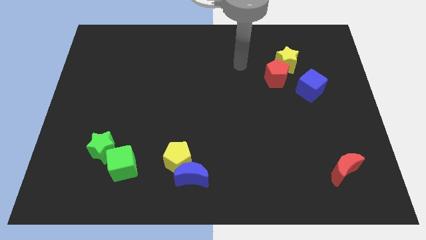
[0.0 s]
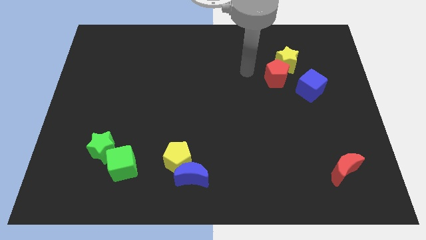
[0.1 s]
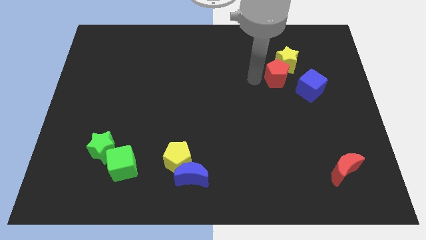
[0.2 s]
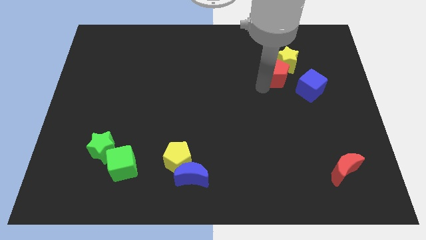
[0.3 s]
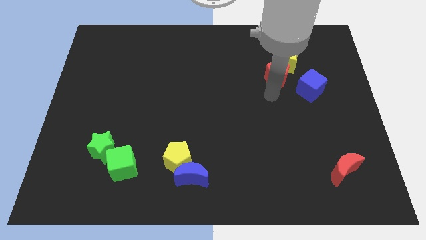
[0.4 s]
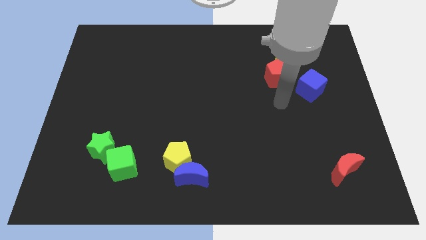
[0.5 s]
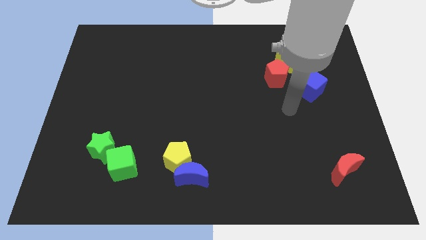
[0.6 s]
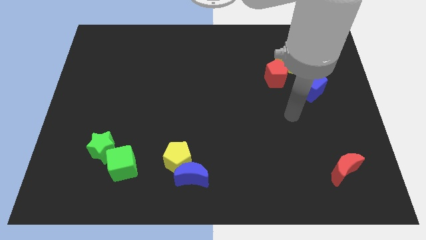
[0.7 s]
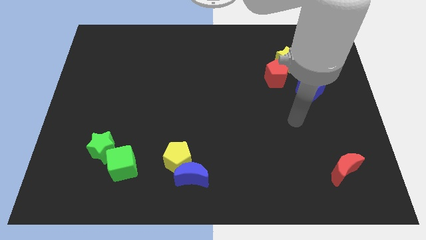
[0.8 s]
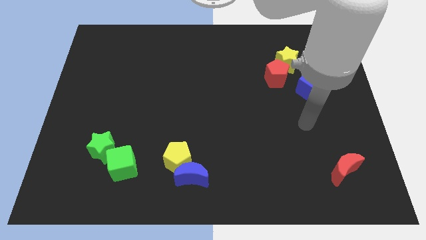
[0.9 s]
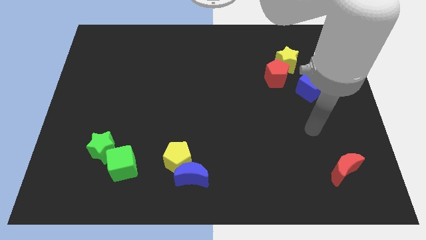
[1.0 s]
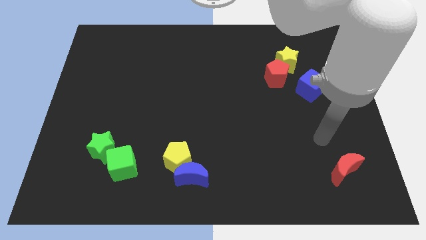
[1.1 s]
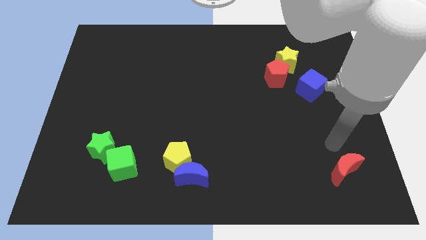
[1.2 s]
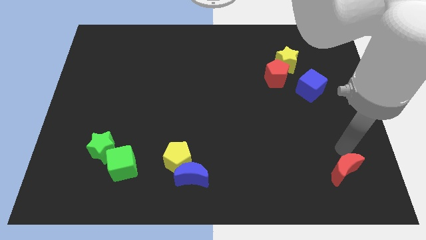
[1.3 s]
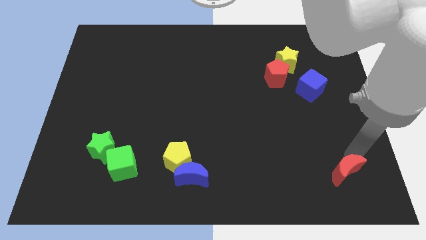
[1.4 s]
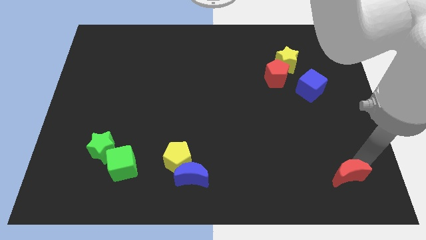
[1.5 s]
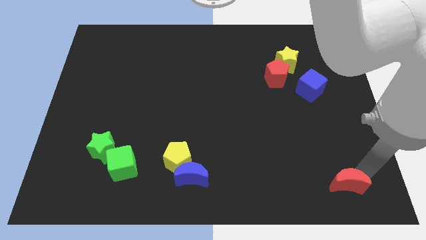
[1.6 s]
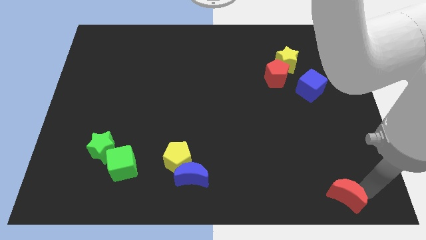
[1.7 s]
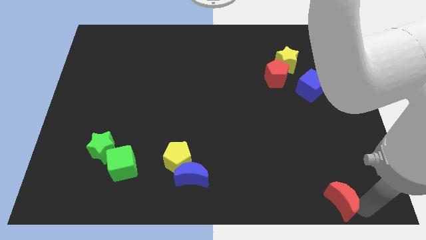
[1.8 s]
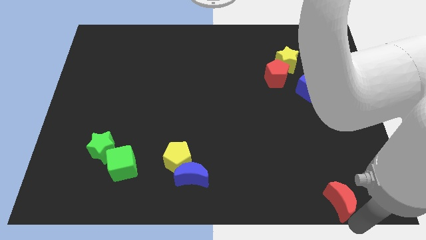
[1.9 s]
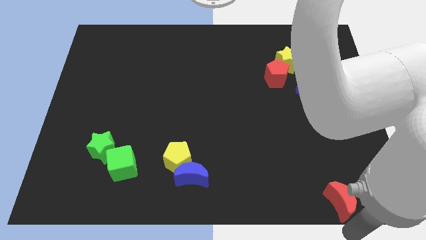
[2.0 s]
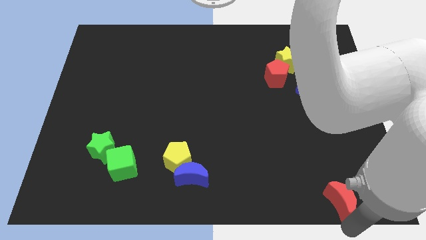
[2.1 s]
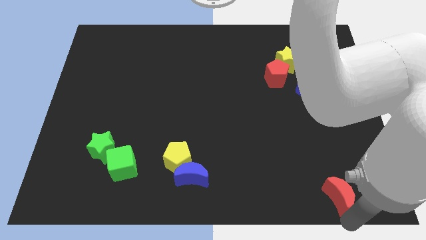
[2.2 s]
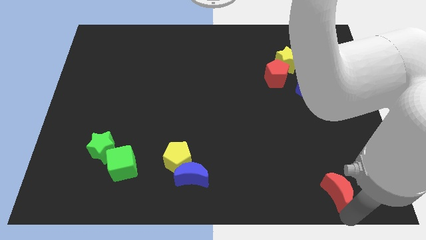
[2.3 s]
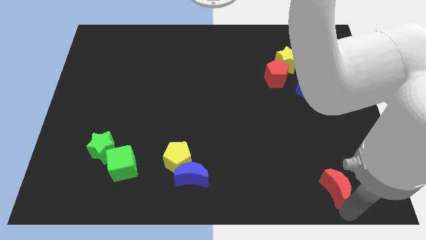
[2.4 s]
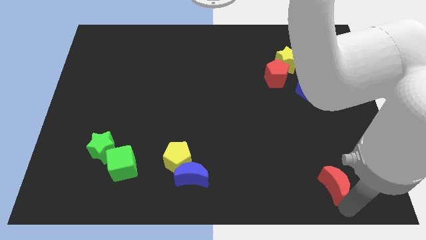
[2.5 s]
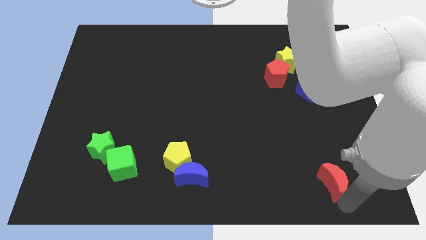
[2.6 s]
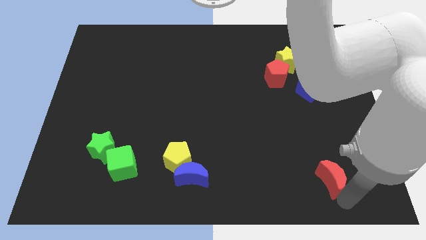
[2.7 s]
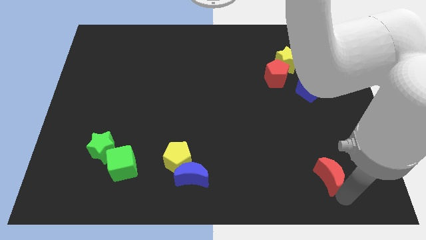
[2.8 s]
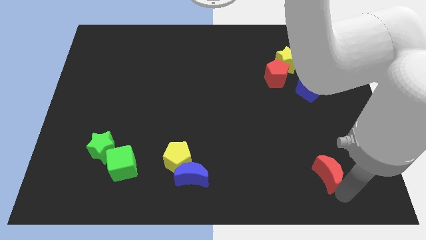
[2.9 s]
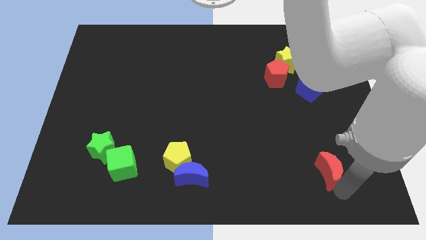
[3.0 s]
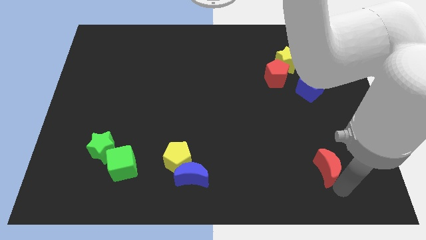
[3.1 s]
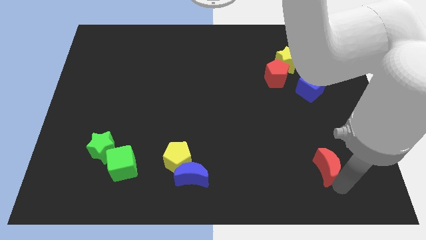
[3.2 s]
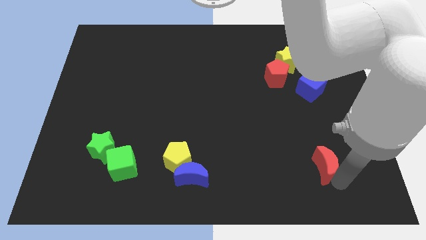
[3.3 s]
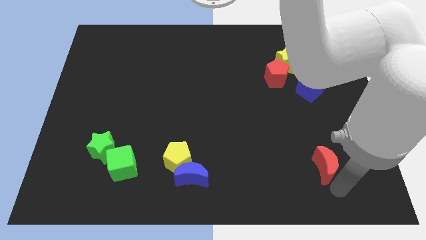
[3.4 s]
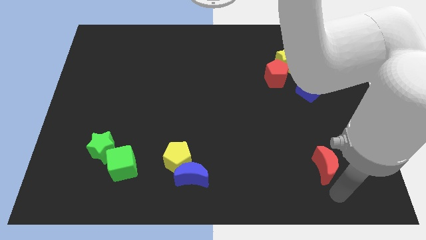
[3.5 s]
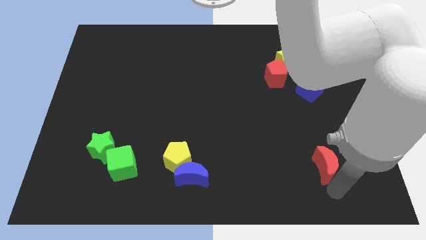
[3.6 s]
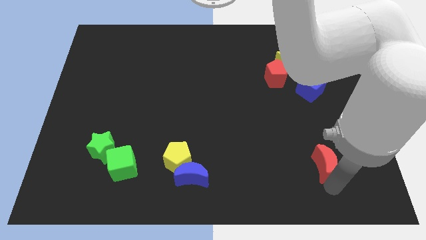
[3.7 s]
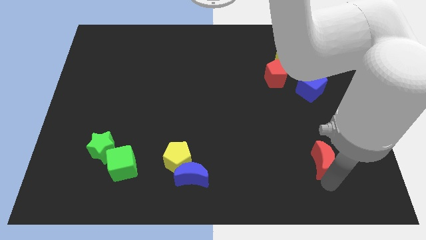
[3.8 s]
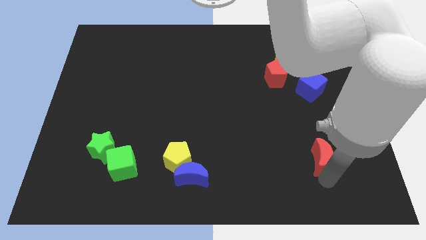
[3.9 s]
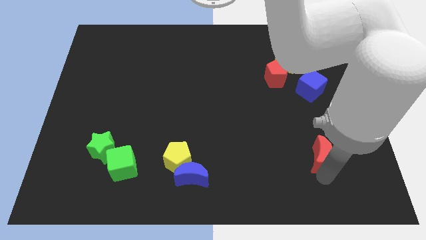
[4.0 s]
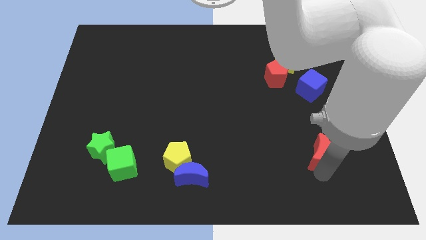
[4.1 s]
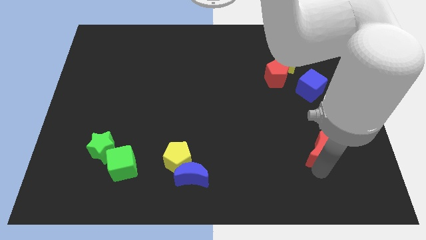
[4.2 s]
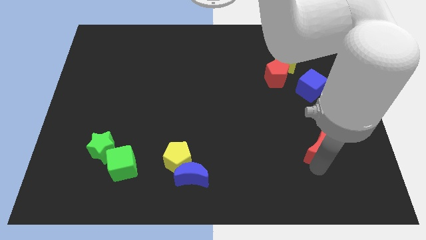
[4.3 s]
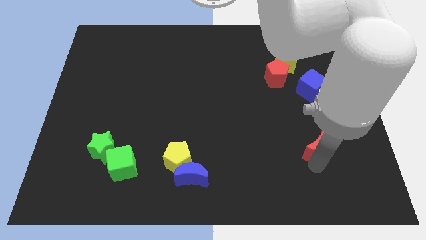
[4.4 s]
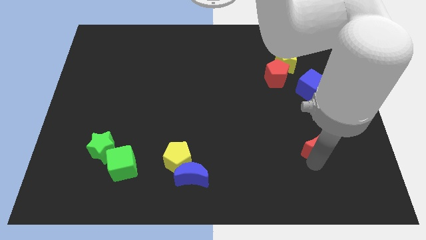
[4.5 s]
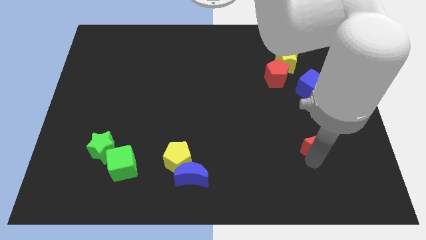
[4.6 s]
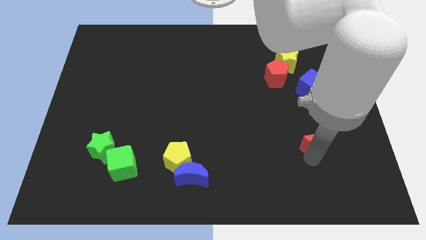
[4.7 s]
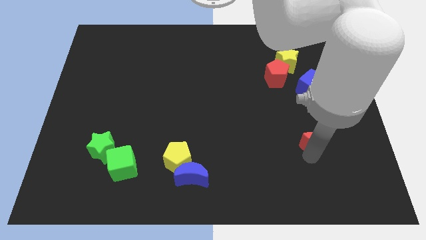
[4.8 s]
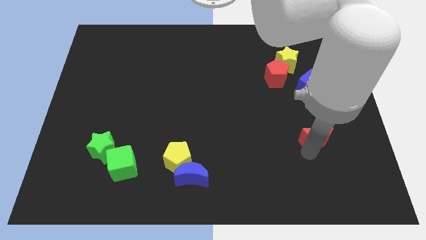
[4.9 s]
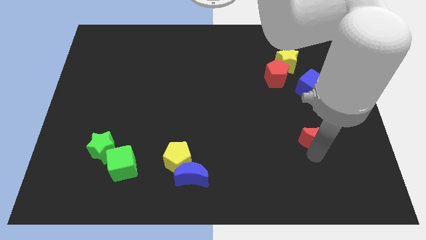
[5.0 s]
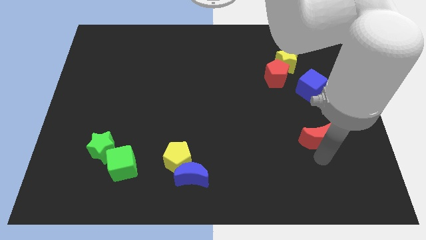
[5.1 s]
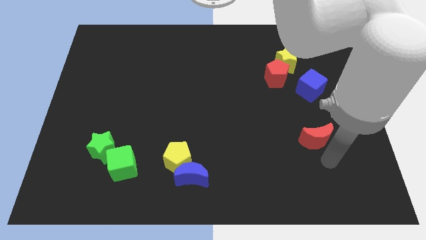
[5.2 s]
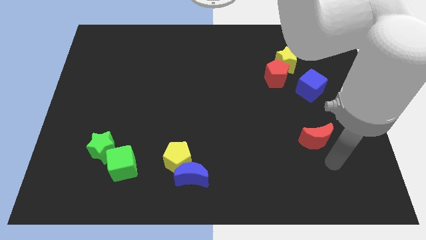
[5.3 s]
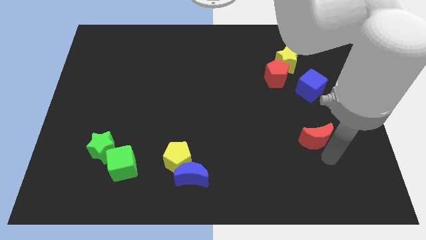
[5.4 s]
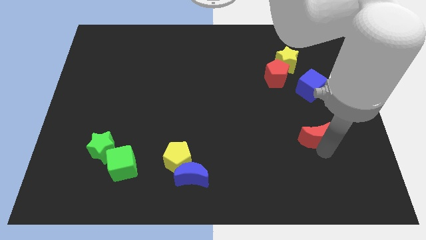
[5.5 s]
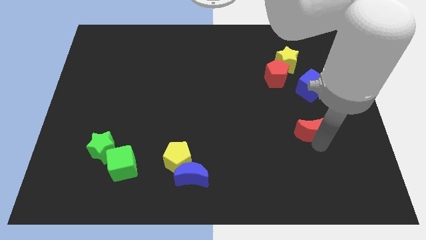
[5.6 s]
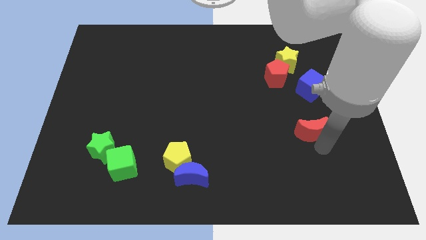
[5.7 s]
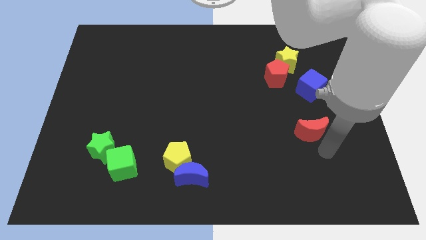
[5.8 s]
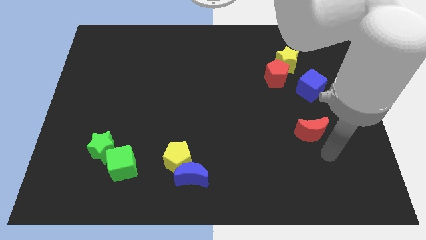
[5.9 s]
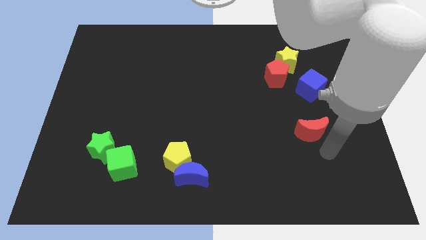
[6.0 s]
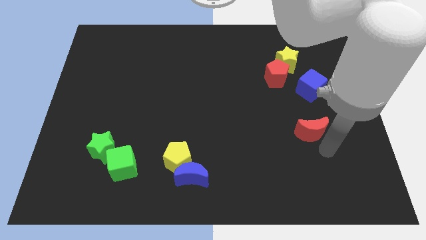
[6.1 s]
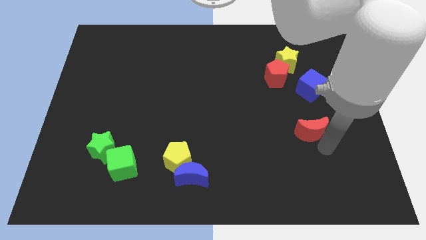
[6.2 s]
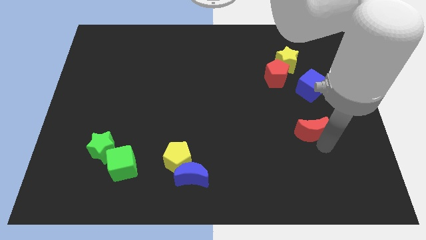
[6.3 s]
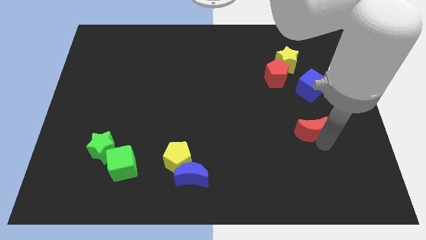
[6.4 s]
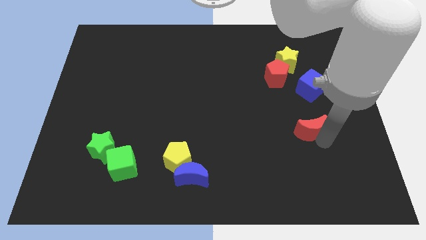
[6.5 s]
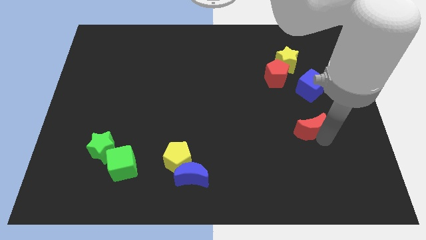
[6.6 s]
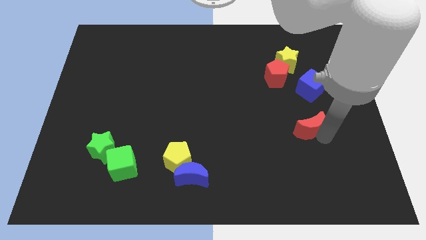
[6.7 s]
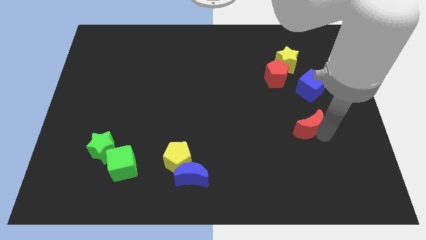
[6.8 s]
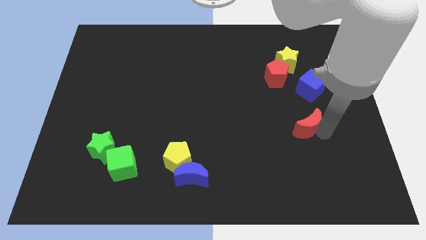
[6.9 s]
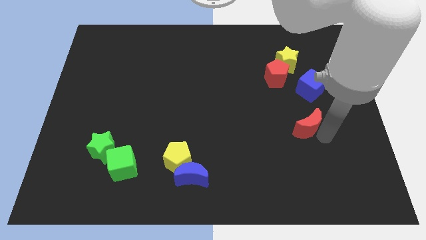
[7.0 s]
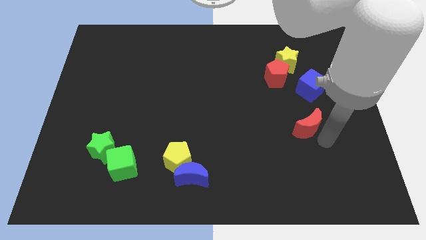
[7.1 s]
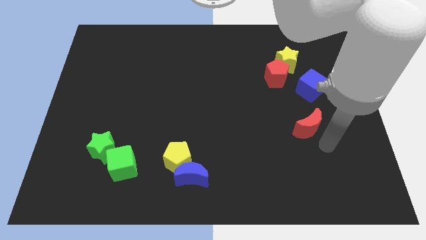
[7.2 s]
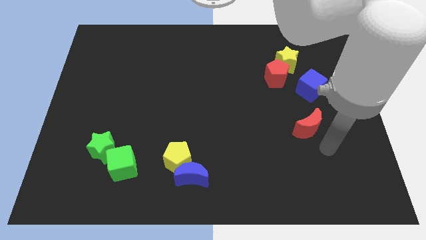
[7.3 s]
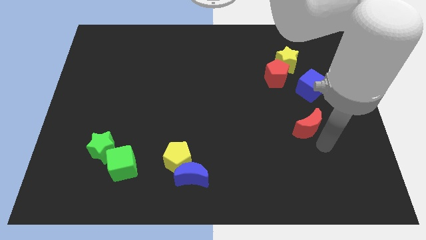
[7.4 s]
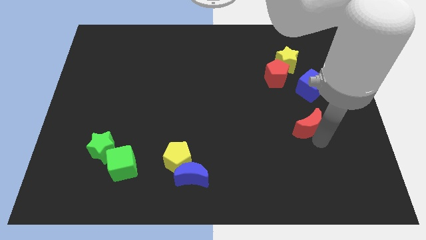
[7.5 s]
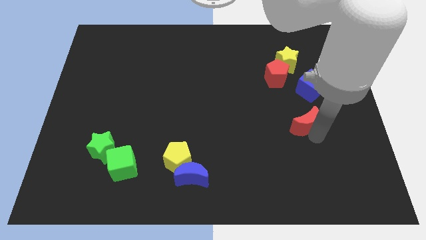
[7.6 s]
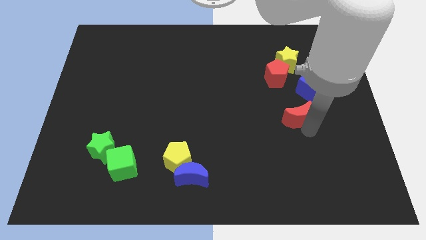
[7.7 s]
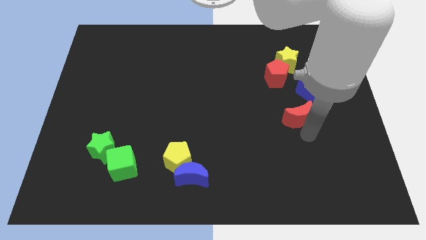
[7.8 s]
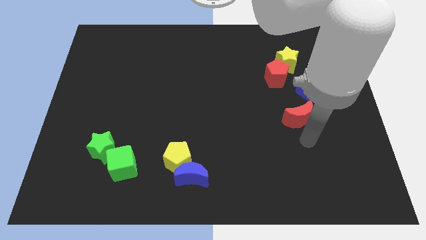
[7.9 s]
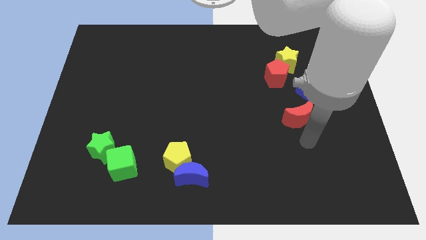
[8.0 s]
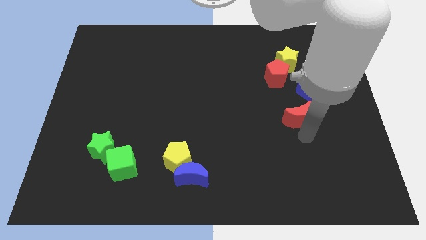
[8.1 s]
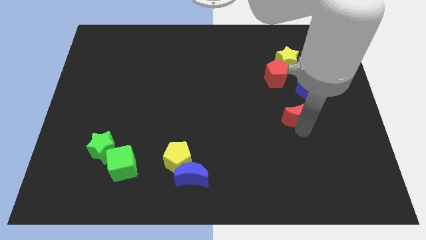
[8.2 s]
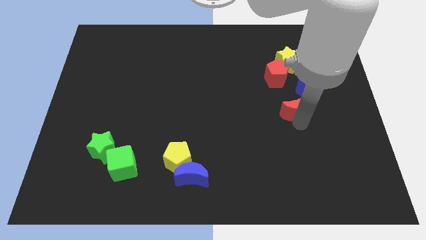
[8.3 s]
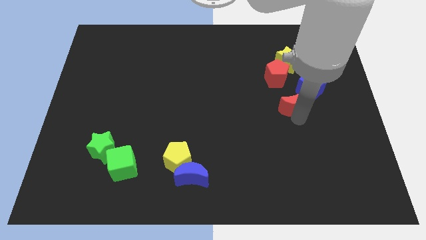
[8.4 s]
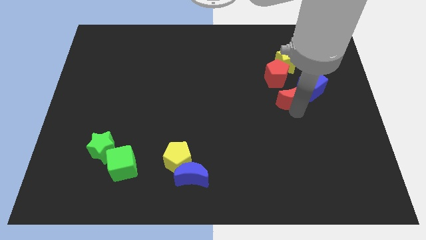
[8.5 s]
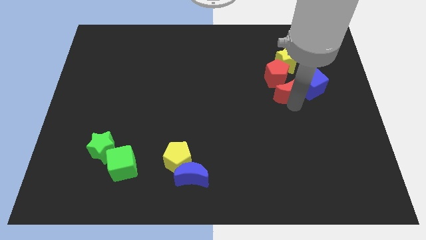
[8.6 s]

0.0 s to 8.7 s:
push the red moon next to the red pentagon
